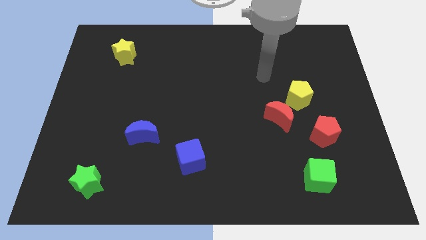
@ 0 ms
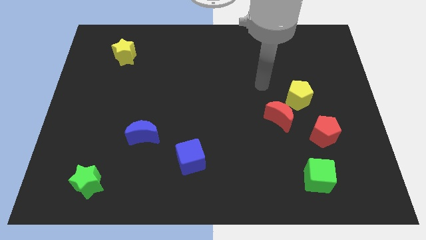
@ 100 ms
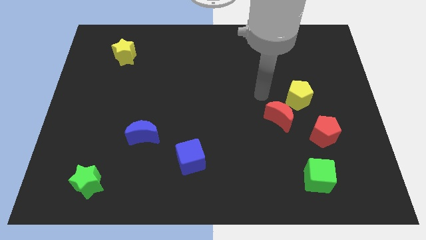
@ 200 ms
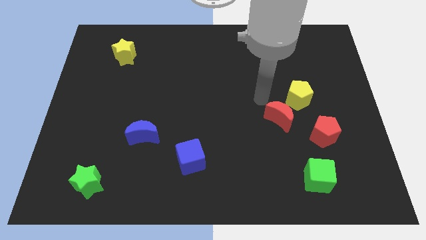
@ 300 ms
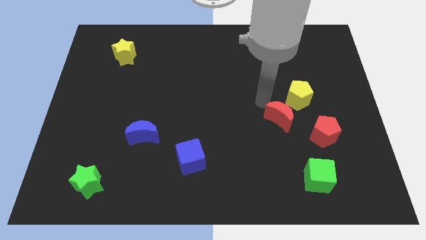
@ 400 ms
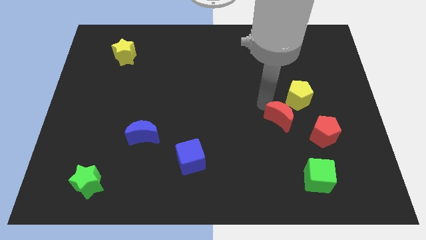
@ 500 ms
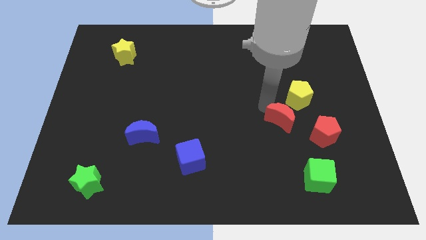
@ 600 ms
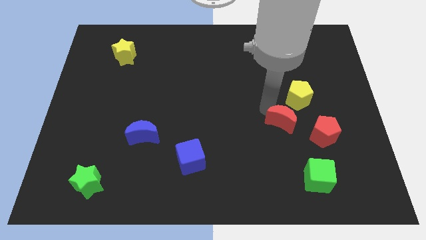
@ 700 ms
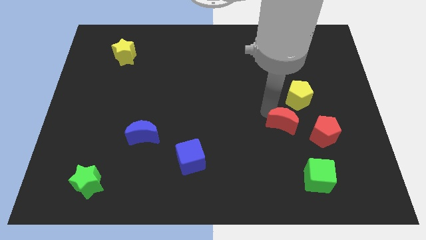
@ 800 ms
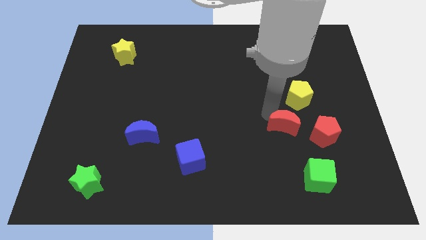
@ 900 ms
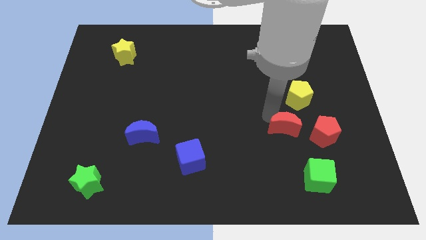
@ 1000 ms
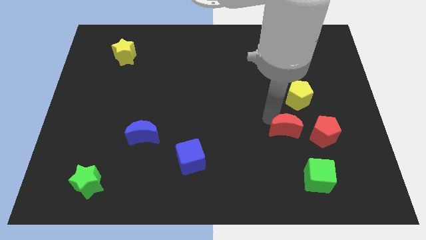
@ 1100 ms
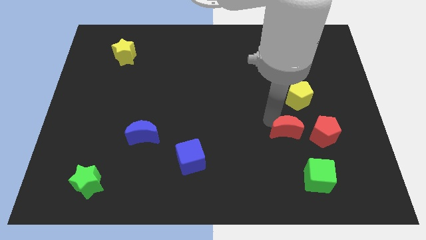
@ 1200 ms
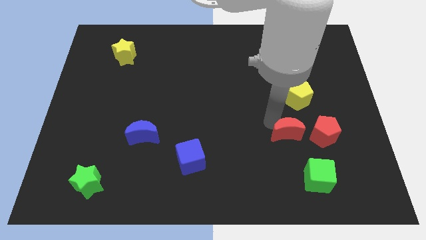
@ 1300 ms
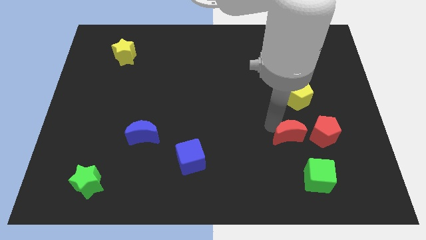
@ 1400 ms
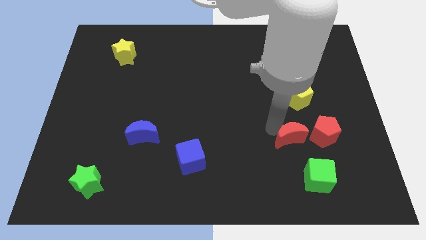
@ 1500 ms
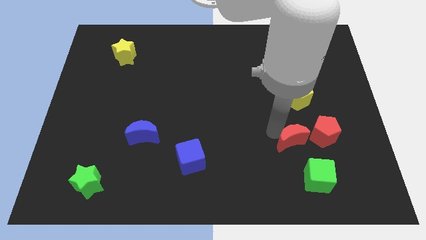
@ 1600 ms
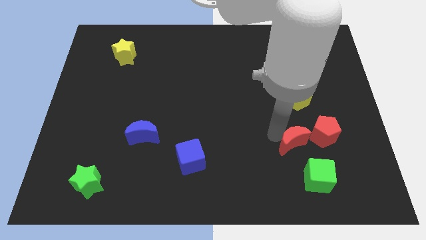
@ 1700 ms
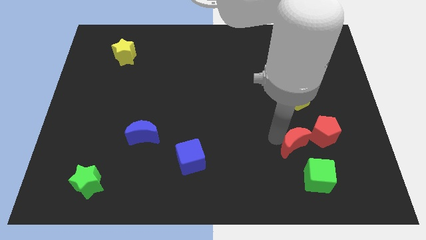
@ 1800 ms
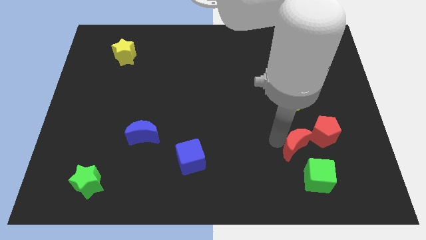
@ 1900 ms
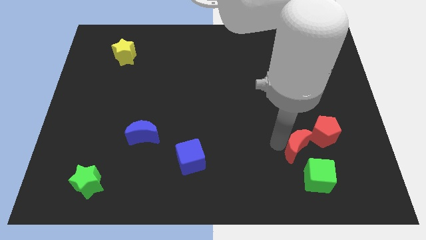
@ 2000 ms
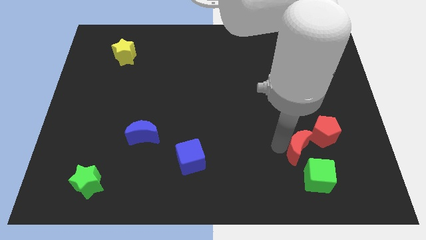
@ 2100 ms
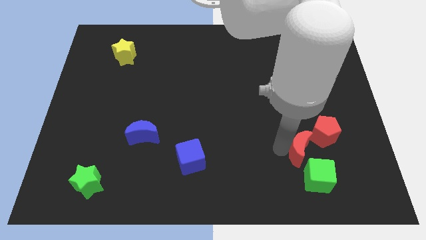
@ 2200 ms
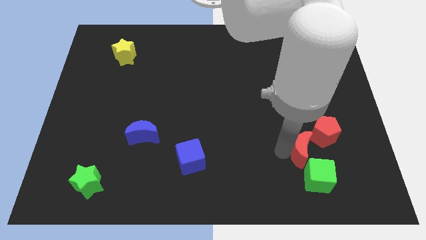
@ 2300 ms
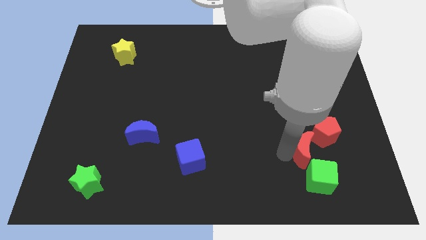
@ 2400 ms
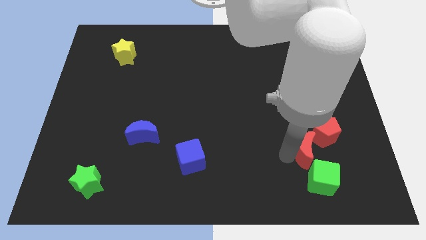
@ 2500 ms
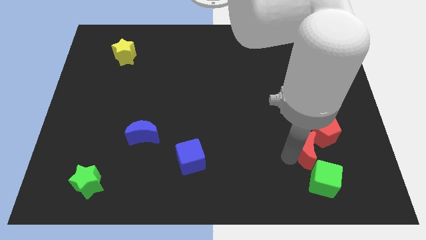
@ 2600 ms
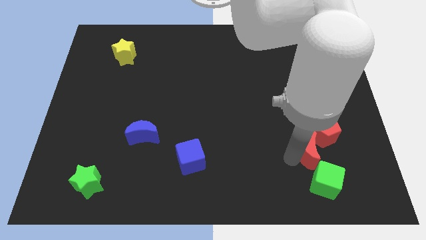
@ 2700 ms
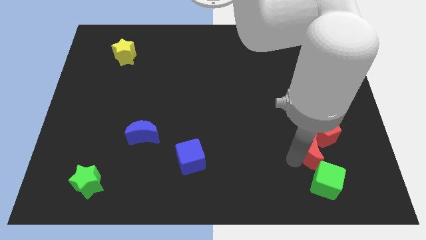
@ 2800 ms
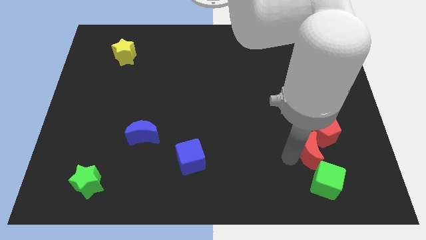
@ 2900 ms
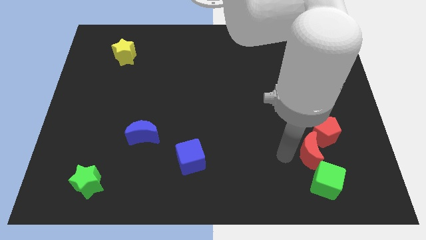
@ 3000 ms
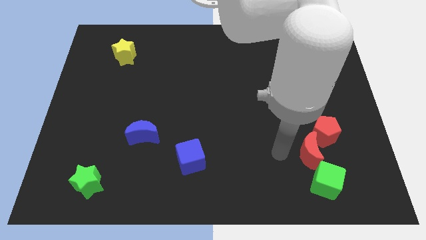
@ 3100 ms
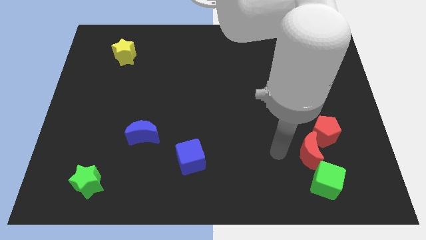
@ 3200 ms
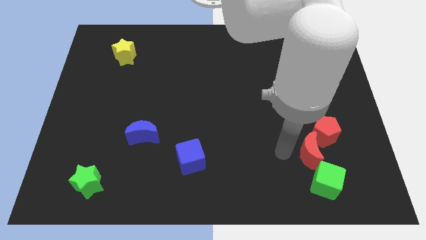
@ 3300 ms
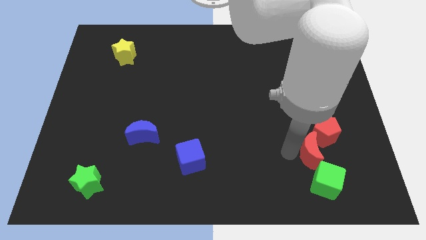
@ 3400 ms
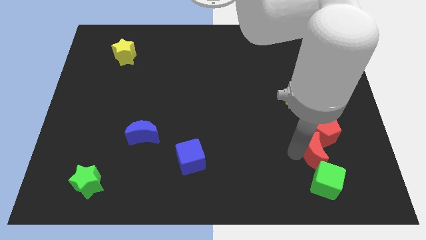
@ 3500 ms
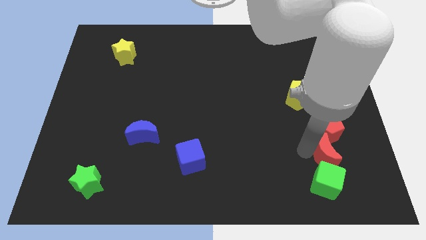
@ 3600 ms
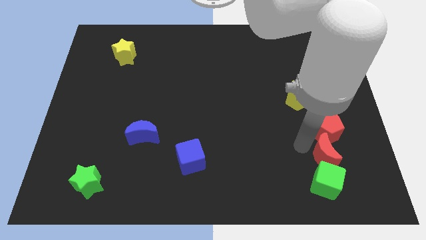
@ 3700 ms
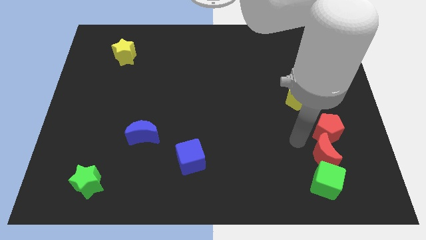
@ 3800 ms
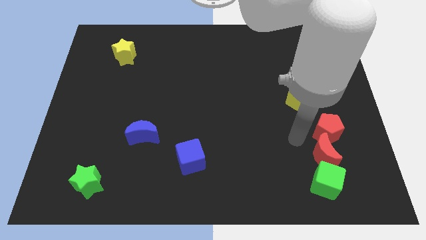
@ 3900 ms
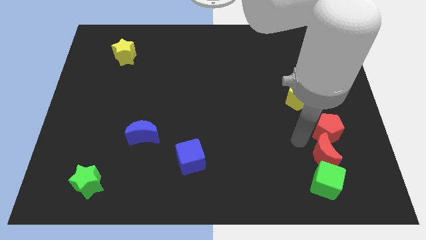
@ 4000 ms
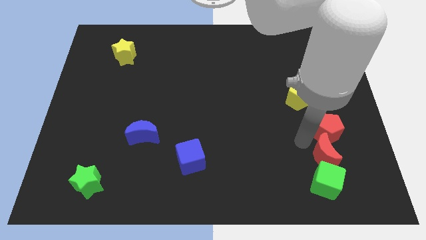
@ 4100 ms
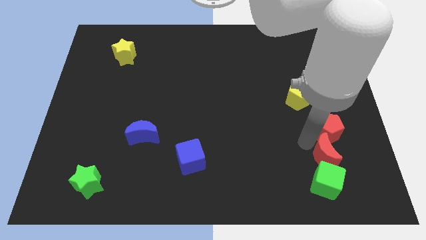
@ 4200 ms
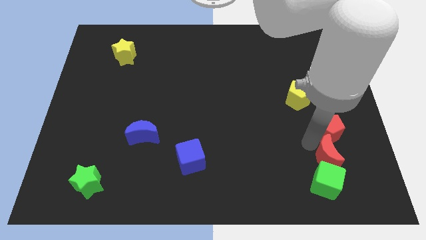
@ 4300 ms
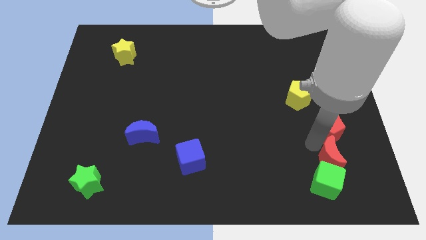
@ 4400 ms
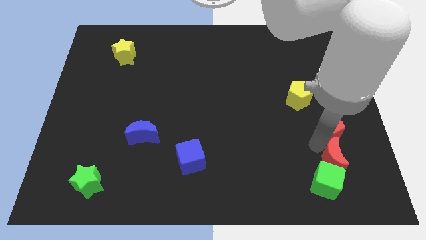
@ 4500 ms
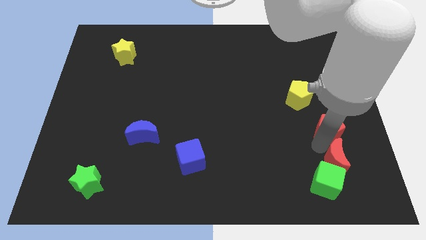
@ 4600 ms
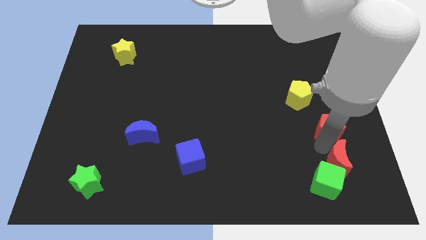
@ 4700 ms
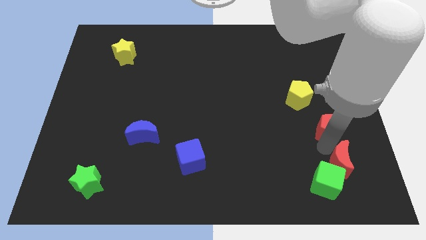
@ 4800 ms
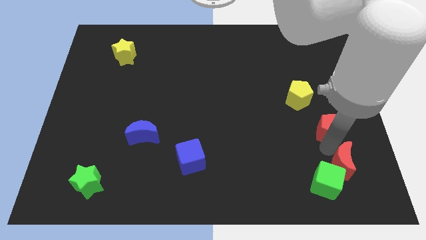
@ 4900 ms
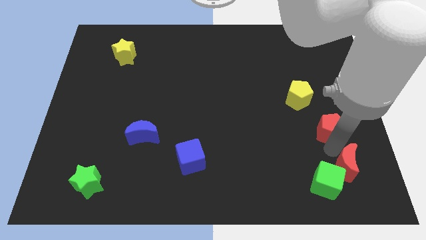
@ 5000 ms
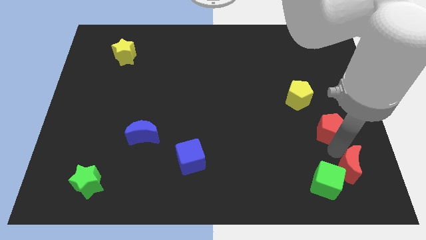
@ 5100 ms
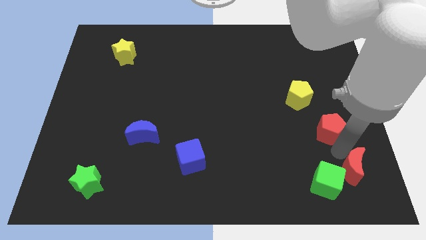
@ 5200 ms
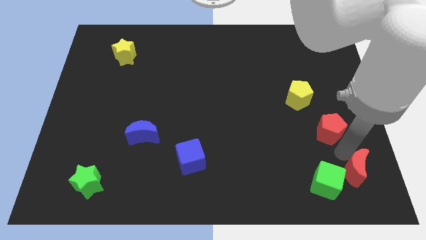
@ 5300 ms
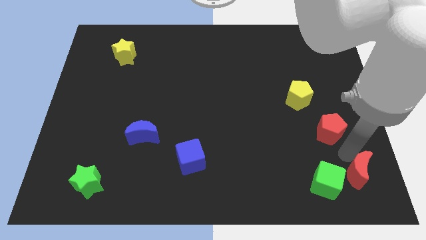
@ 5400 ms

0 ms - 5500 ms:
slide the red moon to the bottom right
